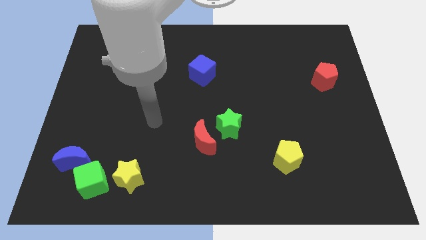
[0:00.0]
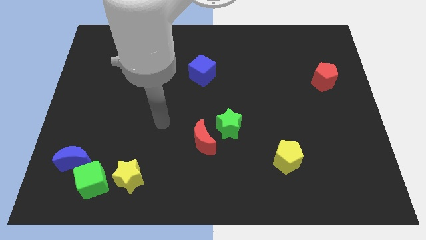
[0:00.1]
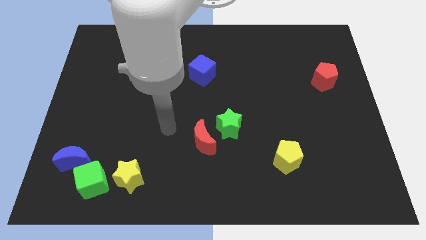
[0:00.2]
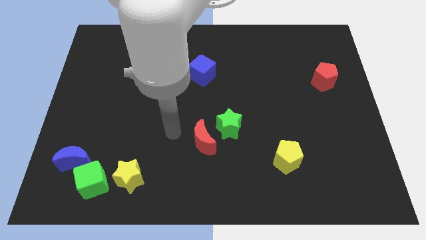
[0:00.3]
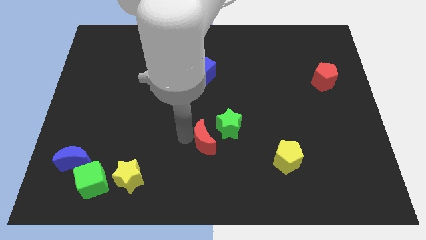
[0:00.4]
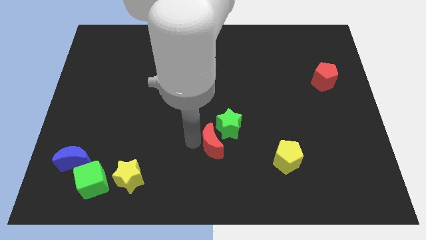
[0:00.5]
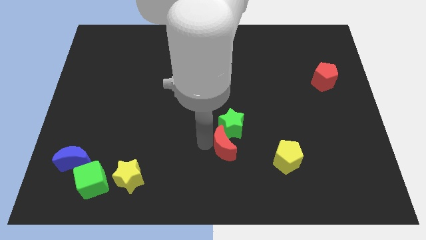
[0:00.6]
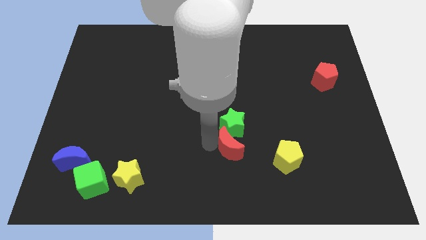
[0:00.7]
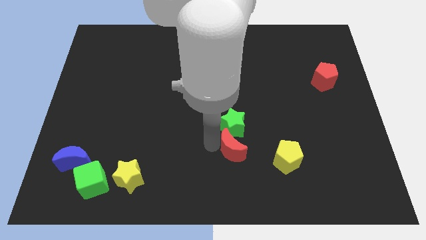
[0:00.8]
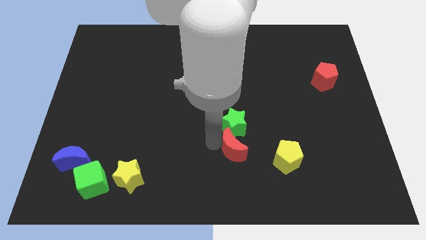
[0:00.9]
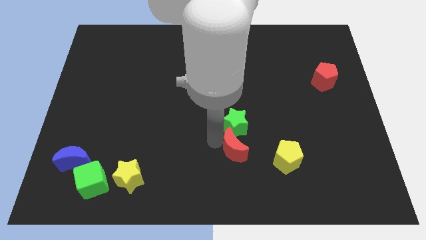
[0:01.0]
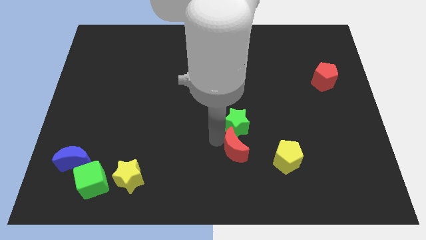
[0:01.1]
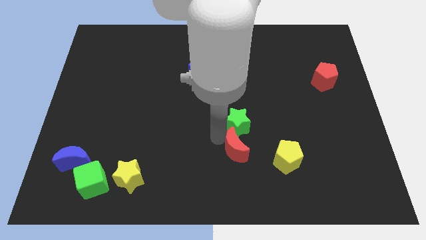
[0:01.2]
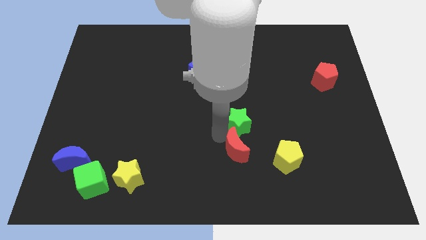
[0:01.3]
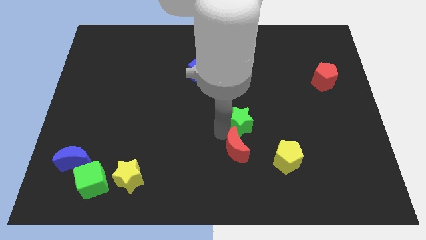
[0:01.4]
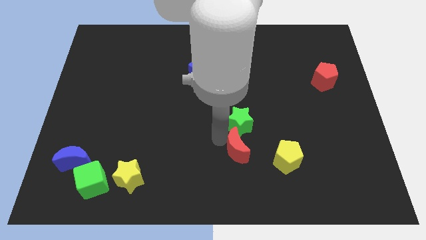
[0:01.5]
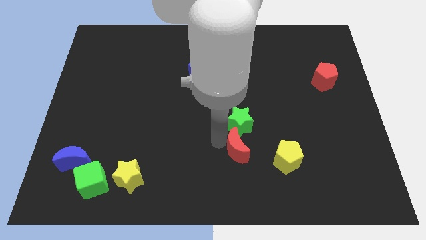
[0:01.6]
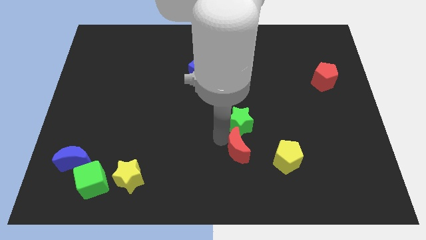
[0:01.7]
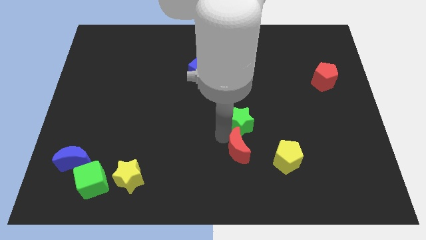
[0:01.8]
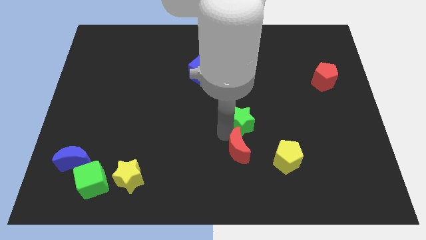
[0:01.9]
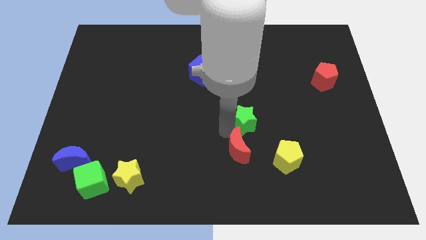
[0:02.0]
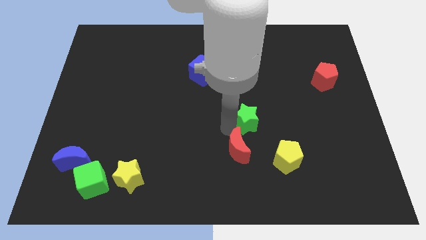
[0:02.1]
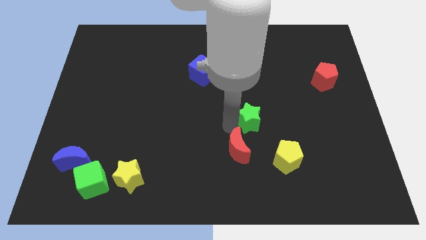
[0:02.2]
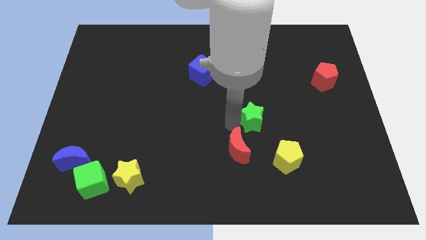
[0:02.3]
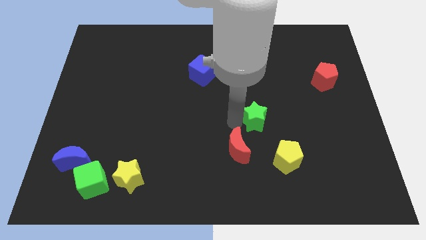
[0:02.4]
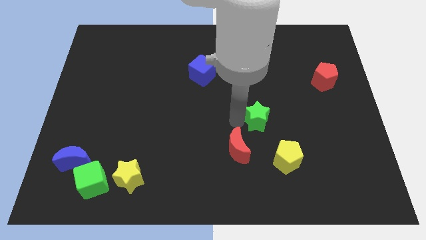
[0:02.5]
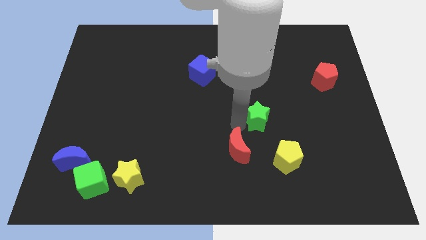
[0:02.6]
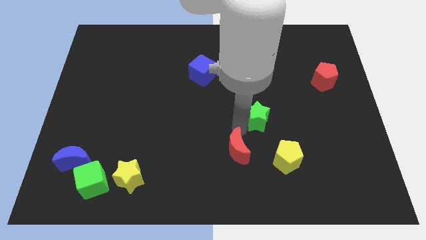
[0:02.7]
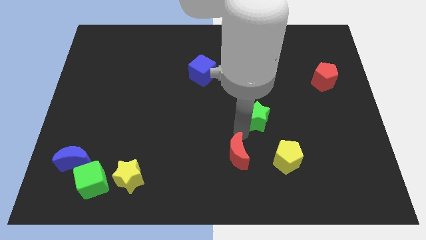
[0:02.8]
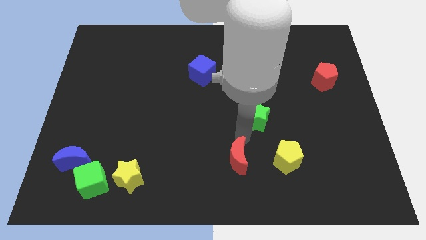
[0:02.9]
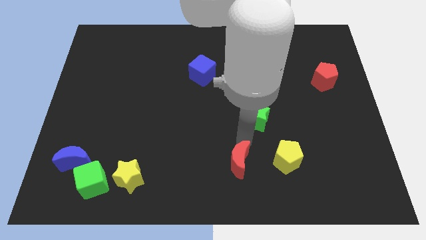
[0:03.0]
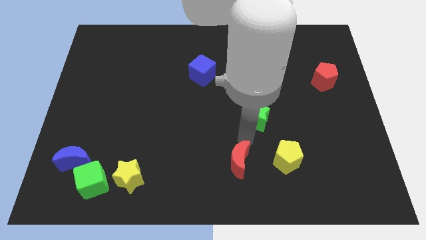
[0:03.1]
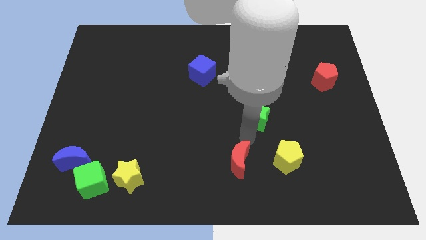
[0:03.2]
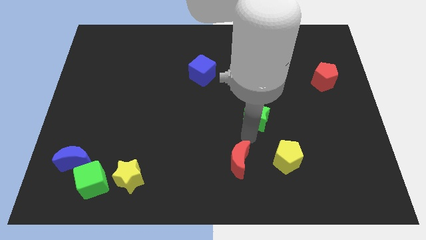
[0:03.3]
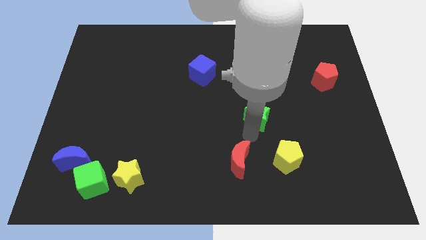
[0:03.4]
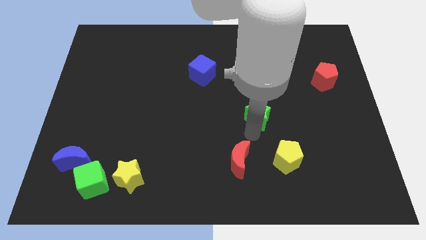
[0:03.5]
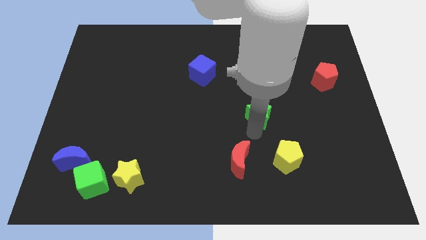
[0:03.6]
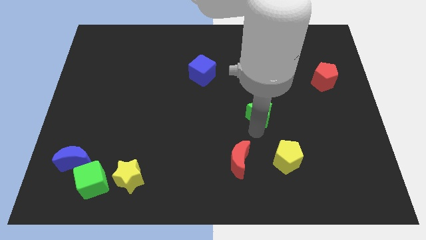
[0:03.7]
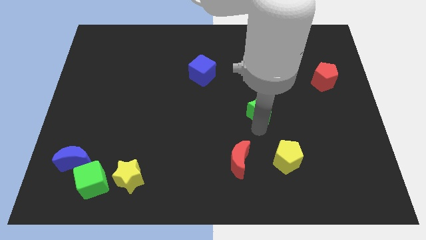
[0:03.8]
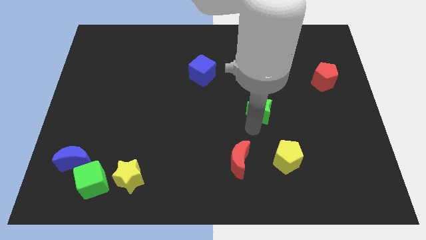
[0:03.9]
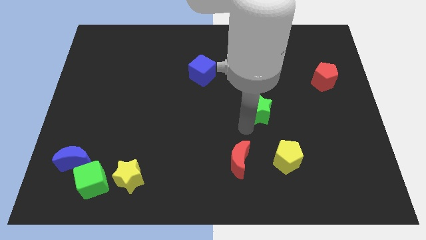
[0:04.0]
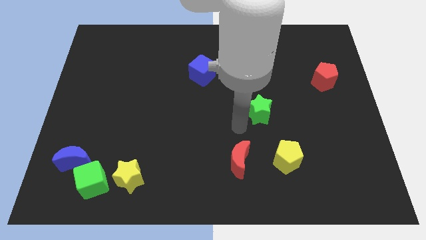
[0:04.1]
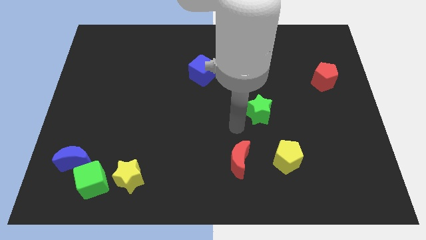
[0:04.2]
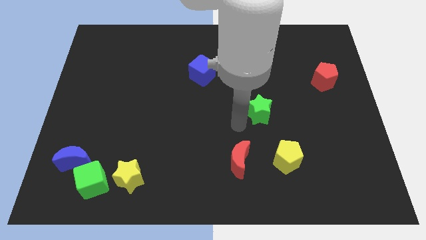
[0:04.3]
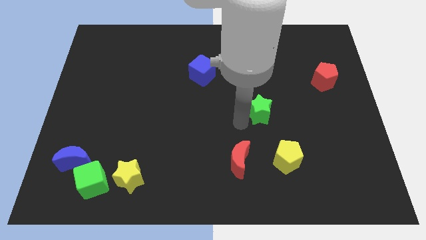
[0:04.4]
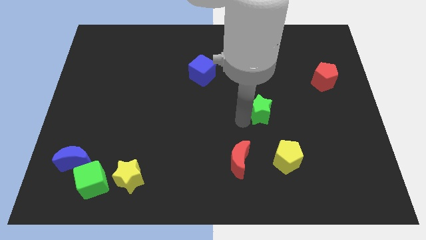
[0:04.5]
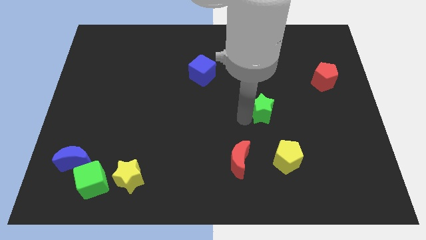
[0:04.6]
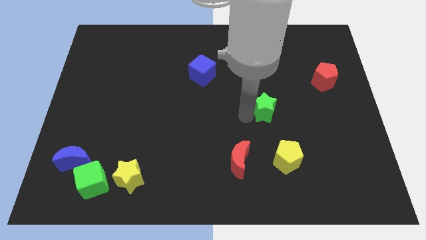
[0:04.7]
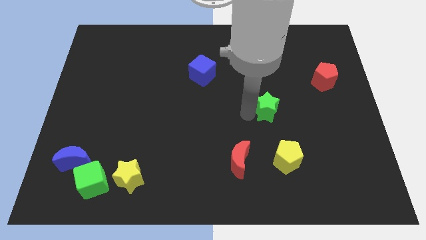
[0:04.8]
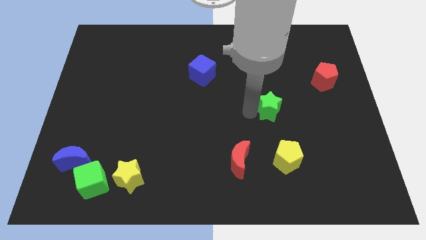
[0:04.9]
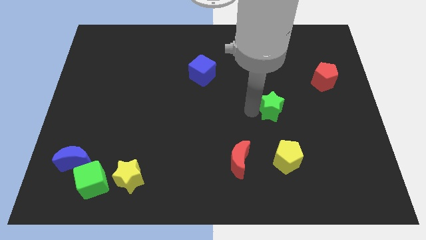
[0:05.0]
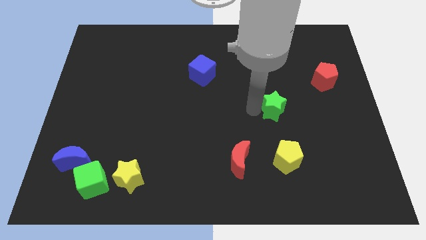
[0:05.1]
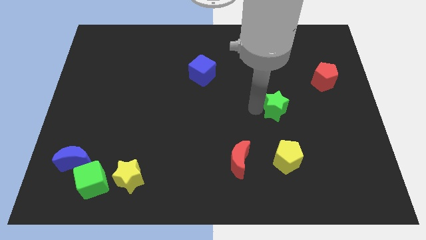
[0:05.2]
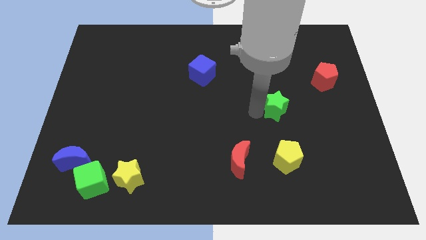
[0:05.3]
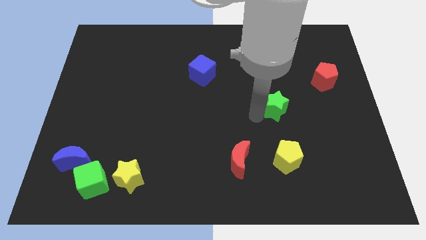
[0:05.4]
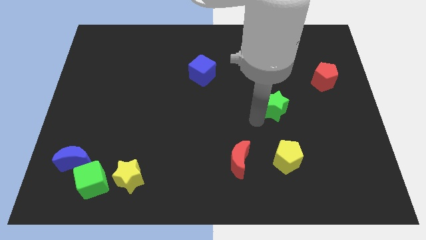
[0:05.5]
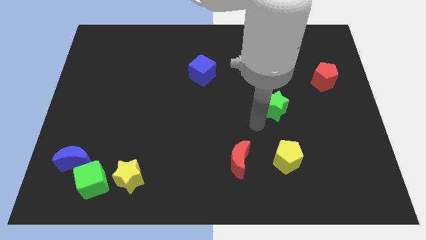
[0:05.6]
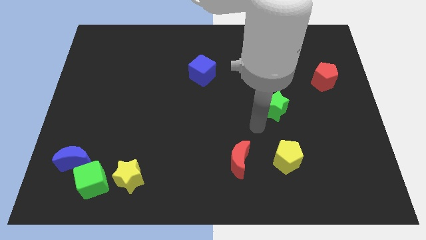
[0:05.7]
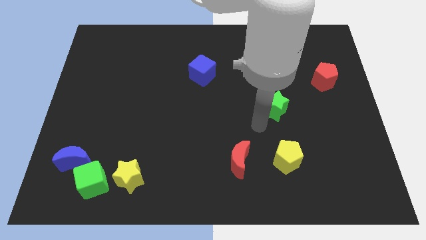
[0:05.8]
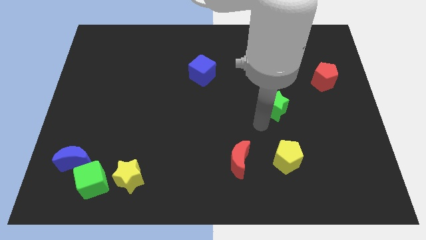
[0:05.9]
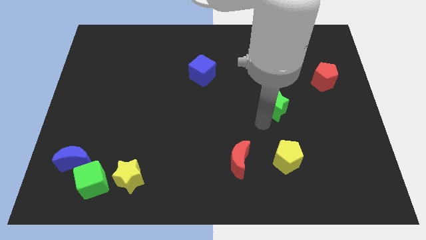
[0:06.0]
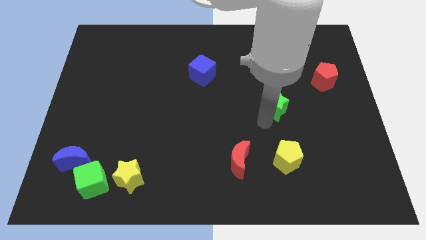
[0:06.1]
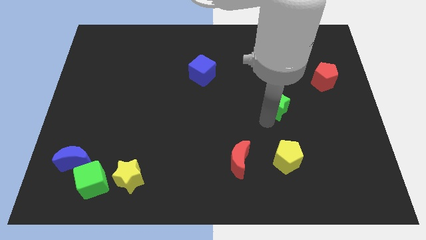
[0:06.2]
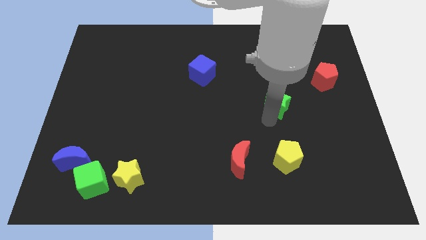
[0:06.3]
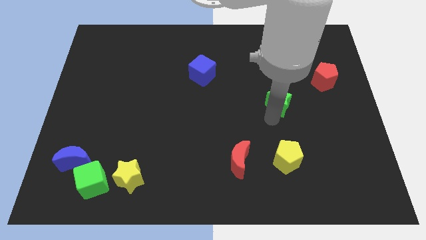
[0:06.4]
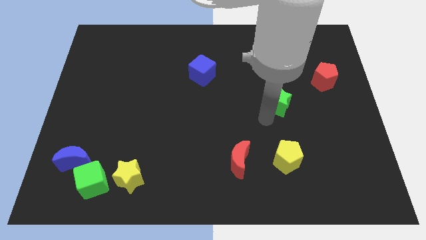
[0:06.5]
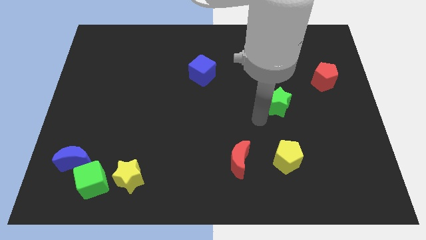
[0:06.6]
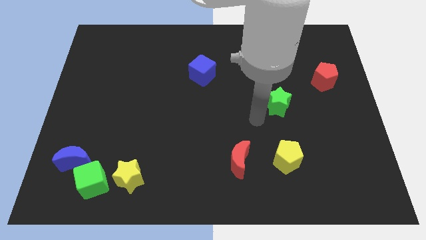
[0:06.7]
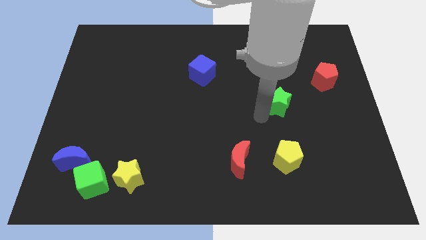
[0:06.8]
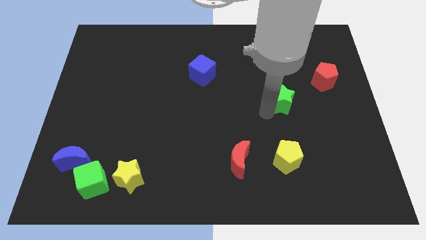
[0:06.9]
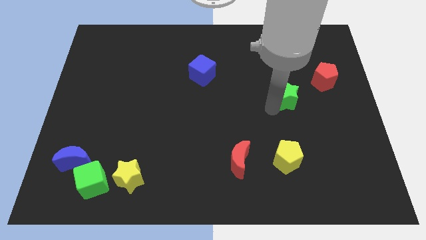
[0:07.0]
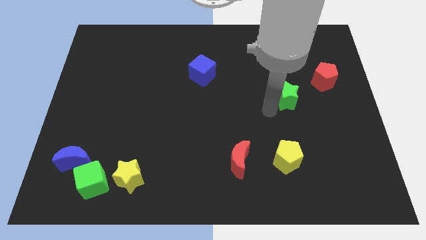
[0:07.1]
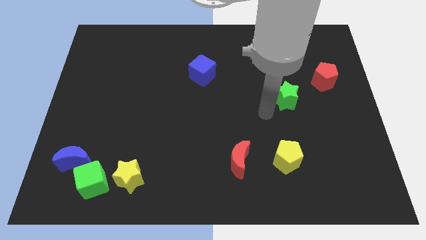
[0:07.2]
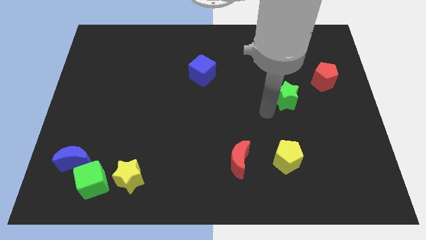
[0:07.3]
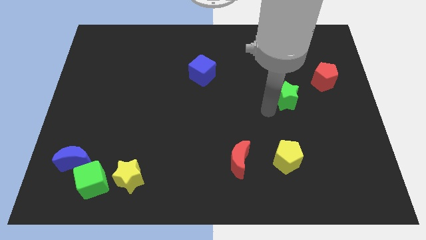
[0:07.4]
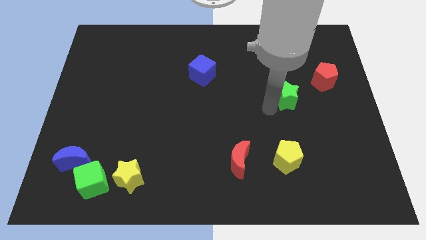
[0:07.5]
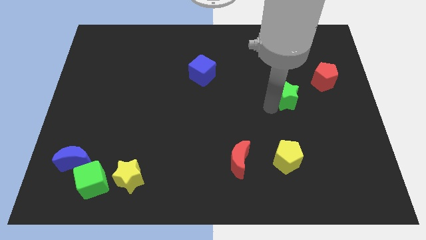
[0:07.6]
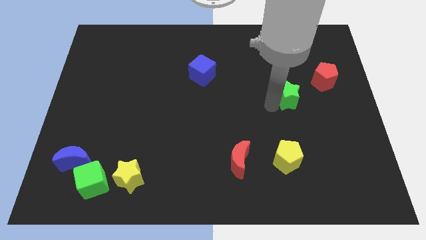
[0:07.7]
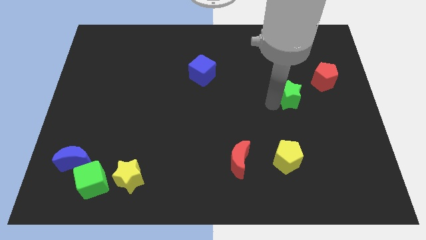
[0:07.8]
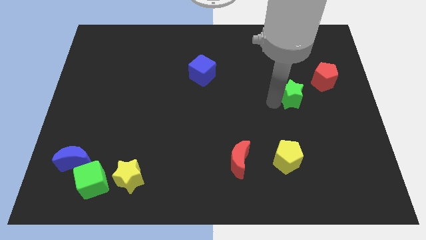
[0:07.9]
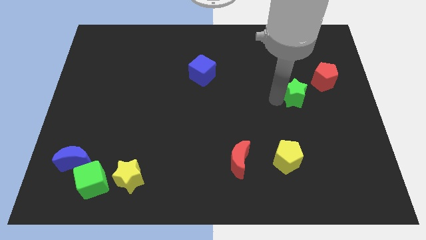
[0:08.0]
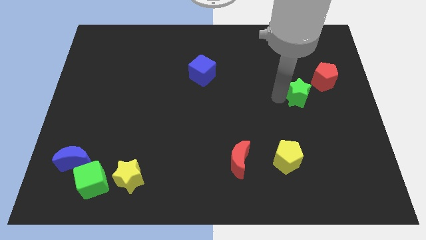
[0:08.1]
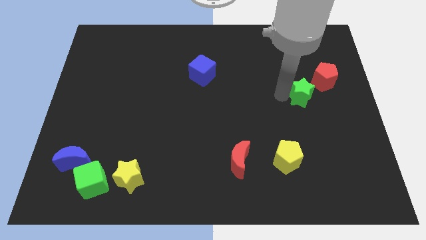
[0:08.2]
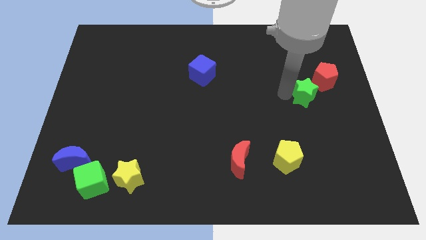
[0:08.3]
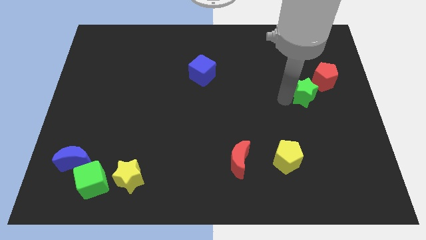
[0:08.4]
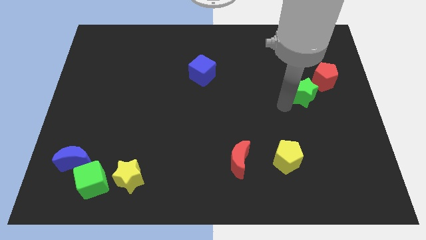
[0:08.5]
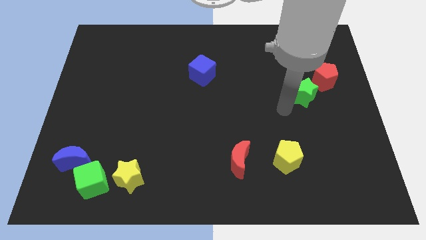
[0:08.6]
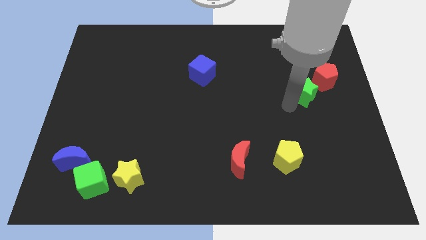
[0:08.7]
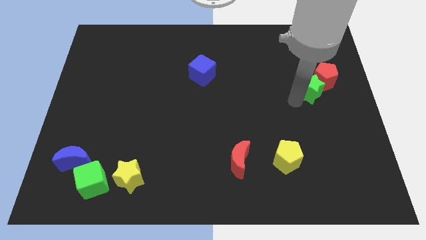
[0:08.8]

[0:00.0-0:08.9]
move the green star next to the red pentagon
